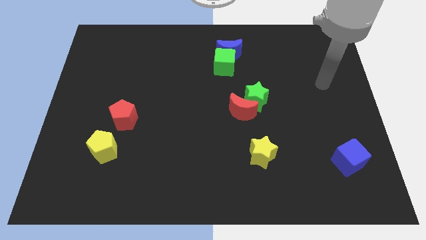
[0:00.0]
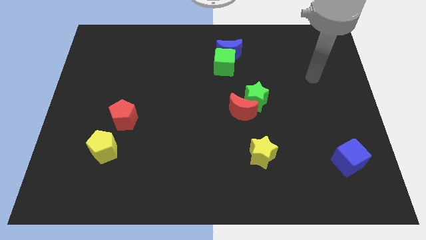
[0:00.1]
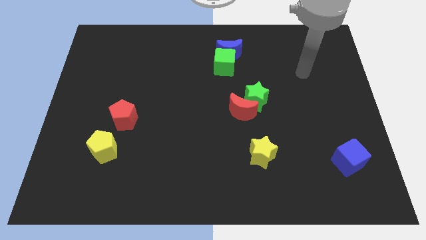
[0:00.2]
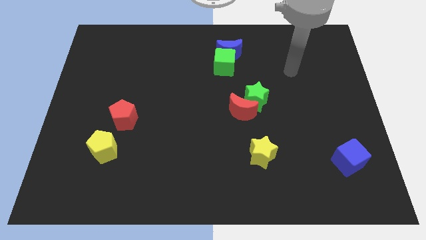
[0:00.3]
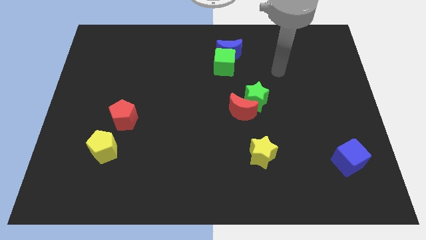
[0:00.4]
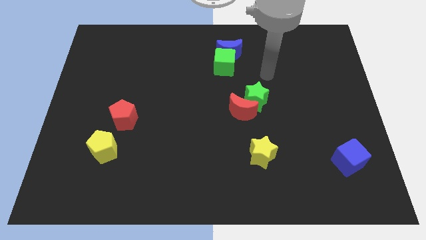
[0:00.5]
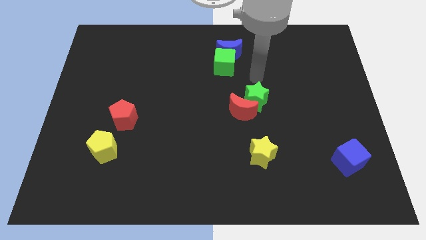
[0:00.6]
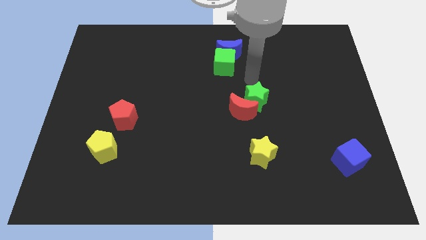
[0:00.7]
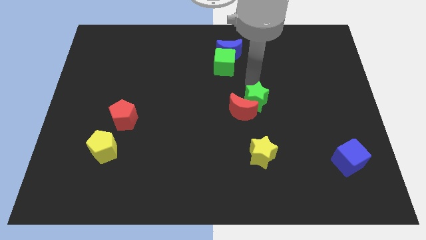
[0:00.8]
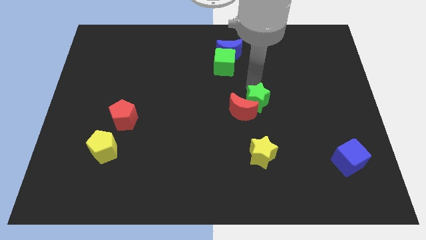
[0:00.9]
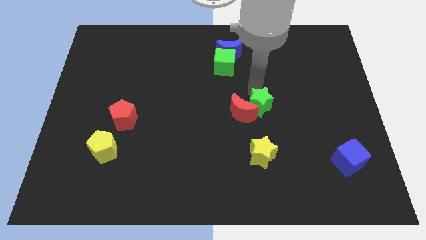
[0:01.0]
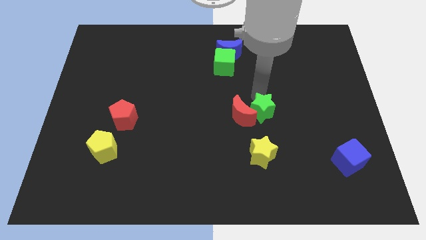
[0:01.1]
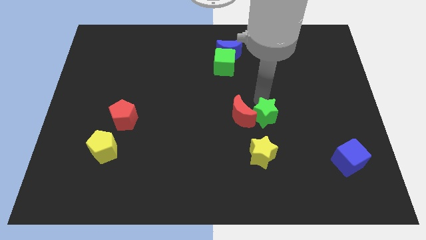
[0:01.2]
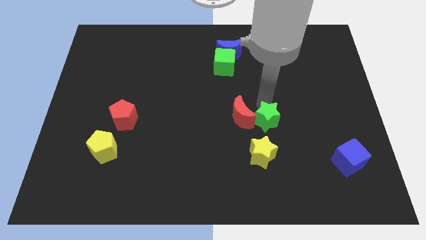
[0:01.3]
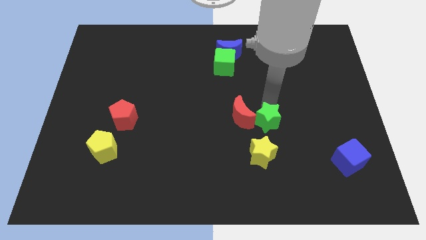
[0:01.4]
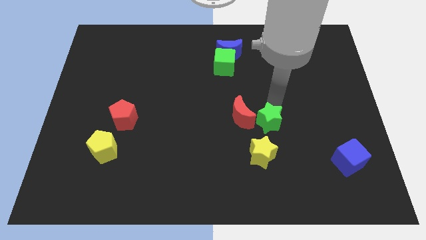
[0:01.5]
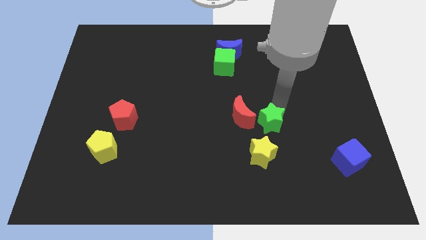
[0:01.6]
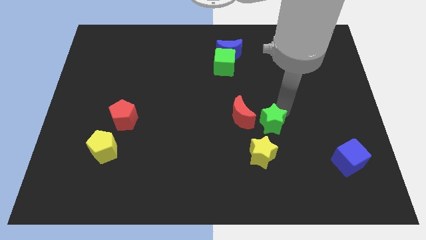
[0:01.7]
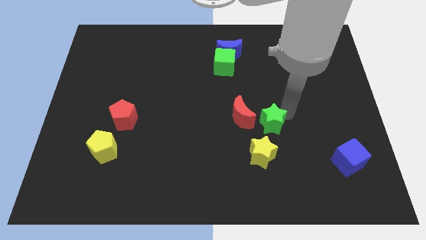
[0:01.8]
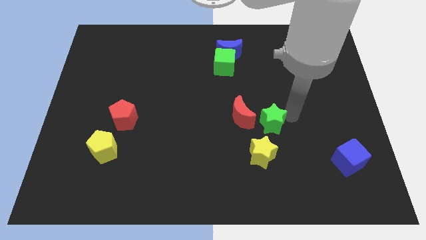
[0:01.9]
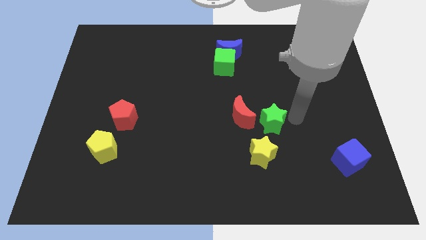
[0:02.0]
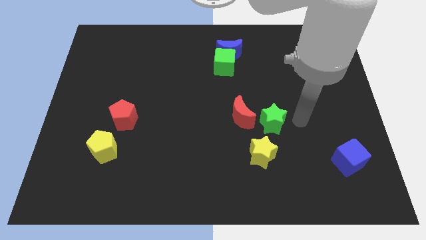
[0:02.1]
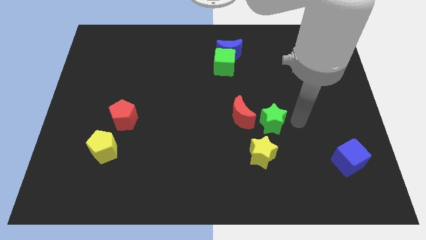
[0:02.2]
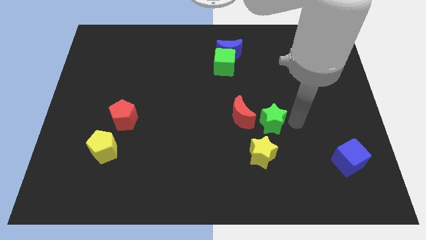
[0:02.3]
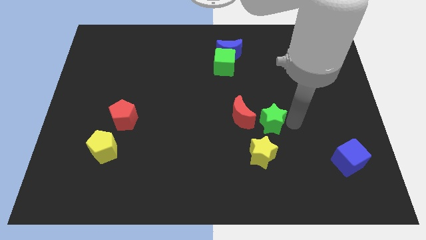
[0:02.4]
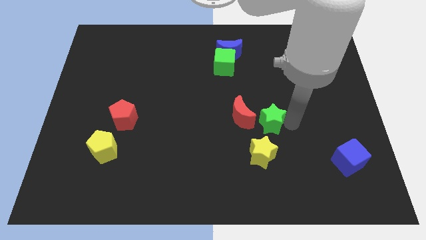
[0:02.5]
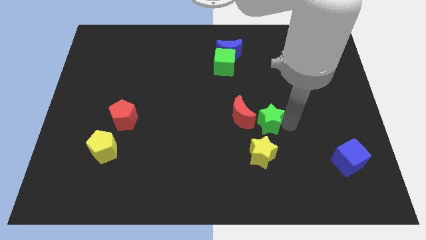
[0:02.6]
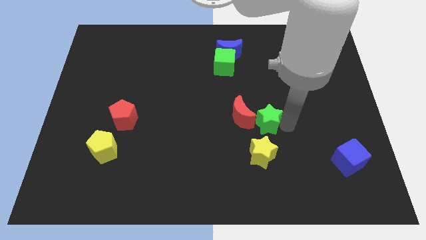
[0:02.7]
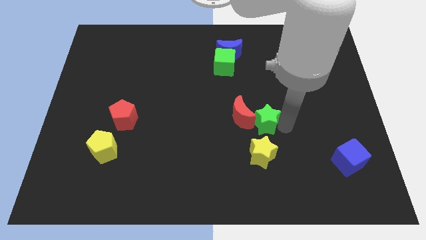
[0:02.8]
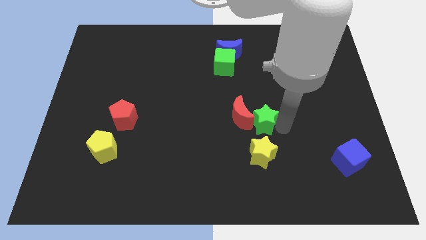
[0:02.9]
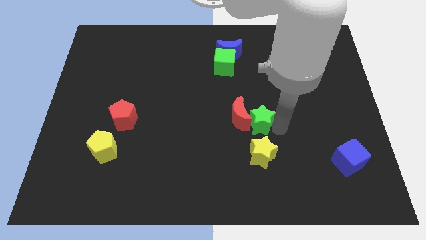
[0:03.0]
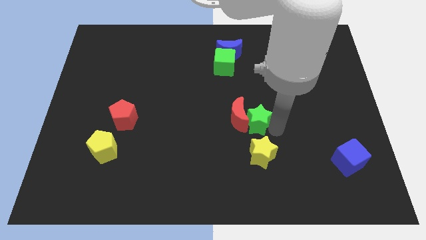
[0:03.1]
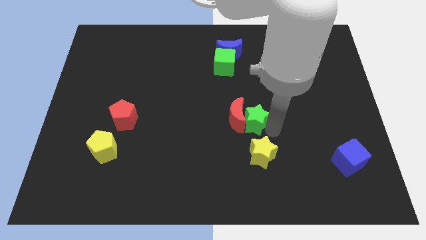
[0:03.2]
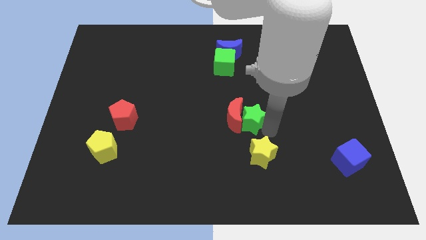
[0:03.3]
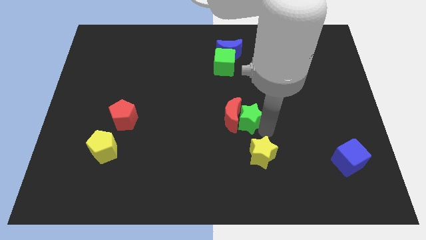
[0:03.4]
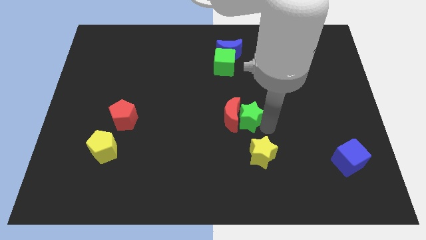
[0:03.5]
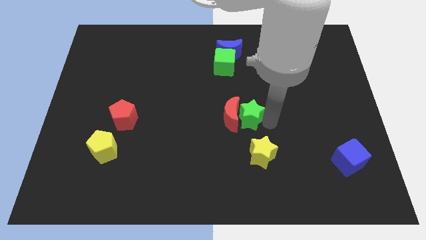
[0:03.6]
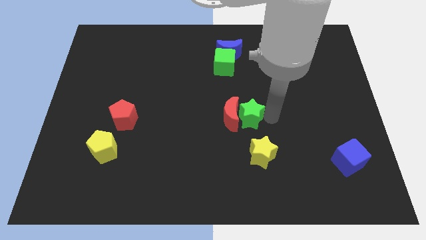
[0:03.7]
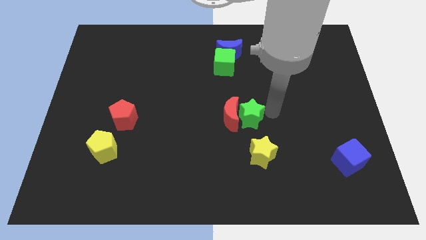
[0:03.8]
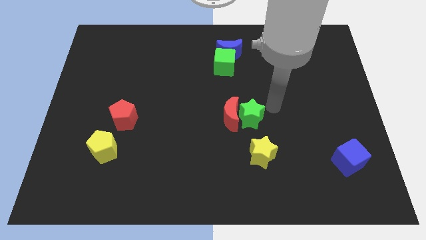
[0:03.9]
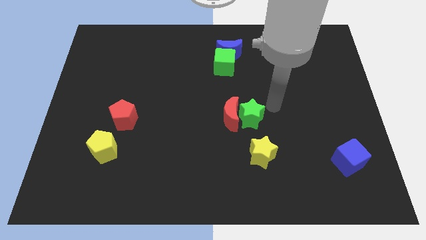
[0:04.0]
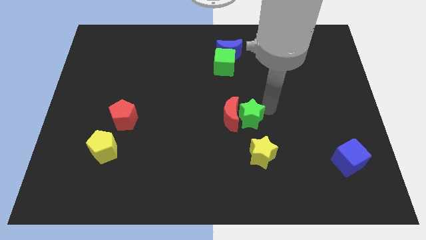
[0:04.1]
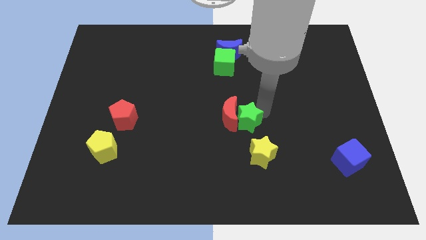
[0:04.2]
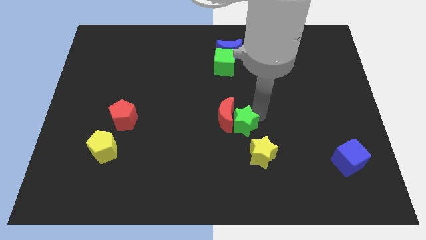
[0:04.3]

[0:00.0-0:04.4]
push the green star a little bit downwards and to the left diagonally

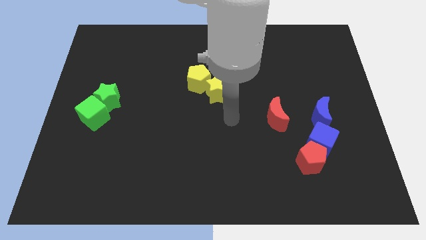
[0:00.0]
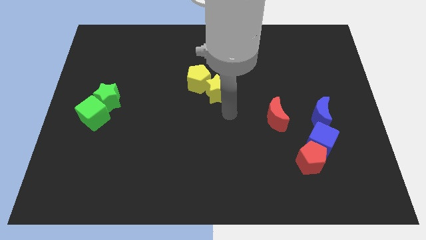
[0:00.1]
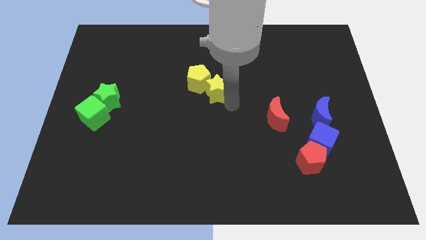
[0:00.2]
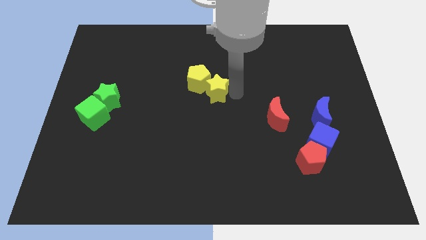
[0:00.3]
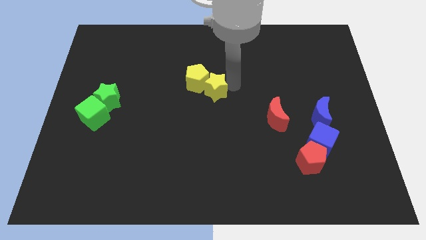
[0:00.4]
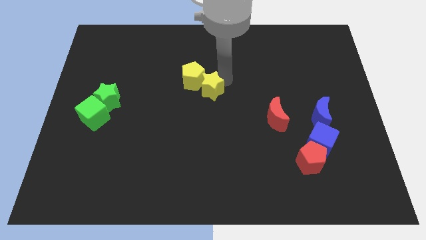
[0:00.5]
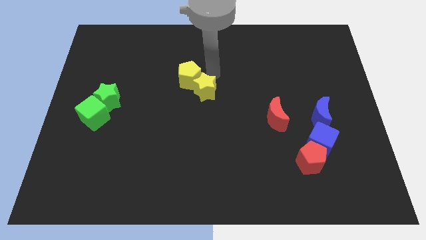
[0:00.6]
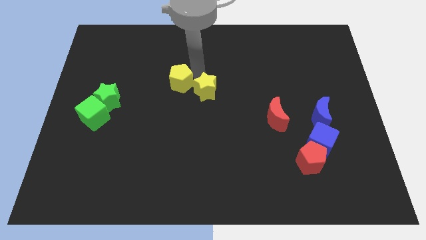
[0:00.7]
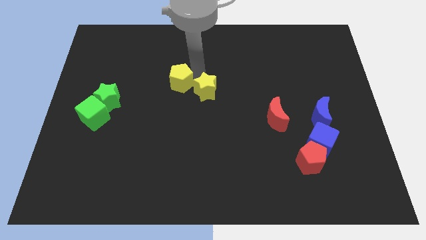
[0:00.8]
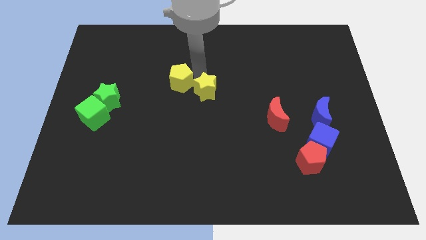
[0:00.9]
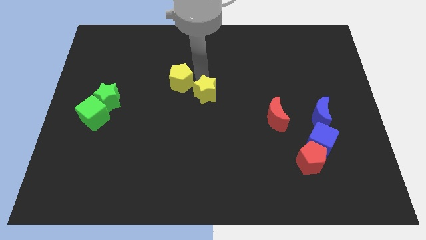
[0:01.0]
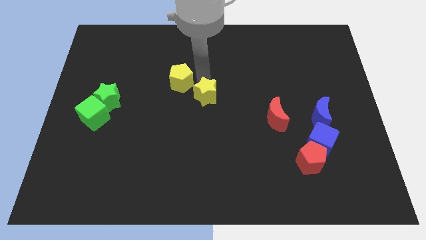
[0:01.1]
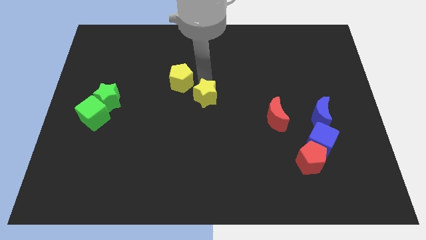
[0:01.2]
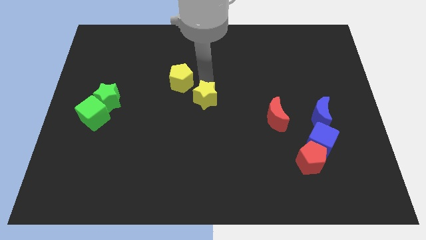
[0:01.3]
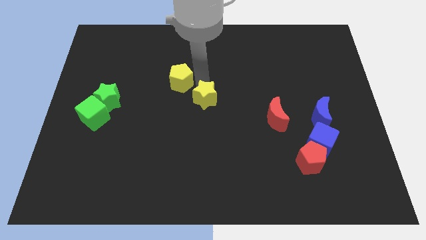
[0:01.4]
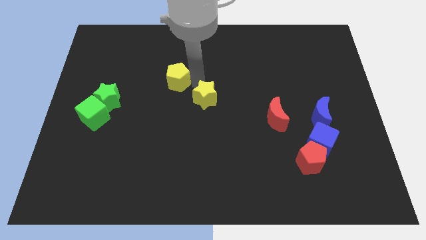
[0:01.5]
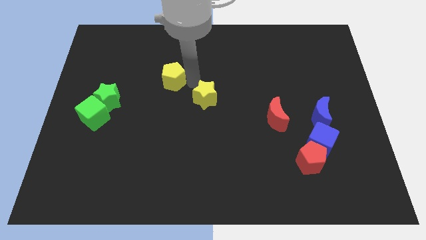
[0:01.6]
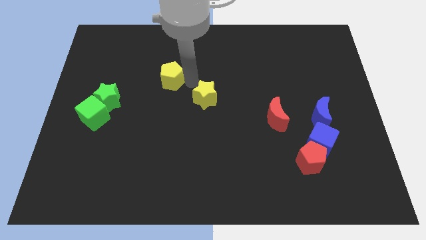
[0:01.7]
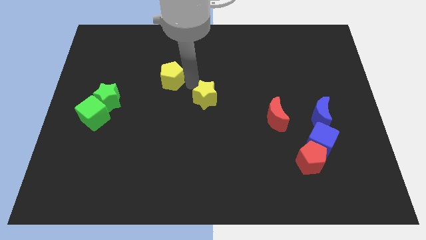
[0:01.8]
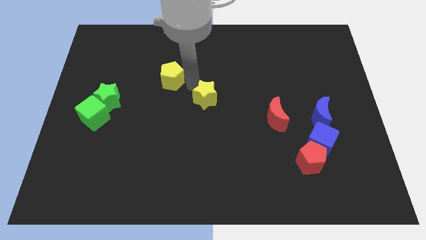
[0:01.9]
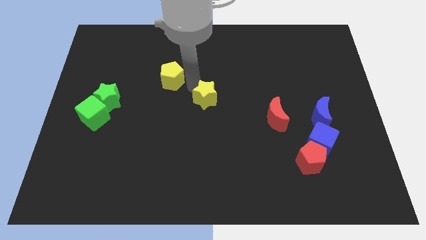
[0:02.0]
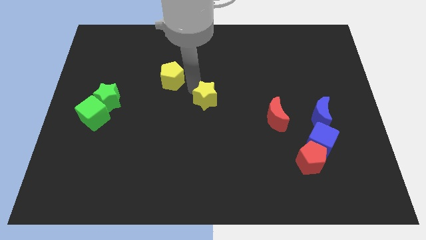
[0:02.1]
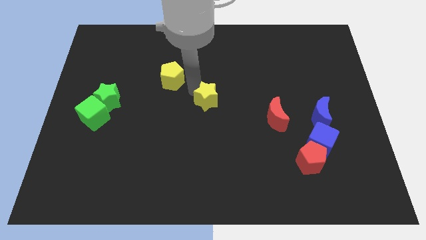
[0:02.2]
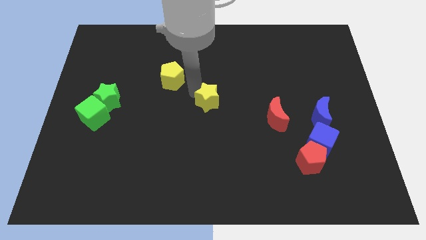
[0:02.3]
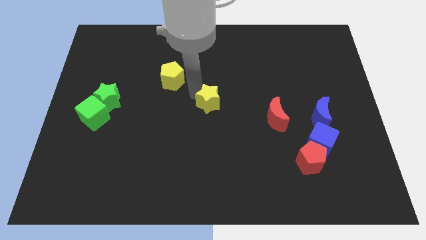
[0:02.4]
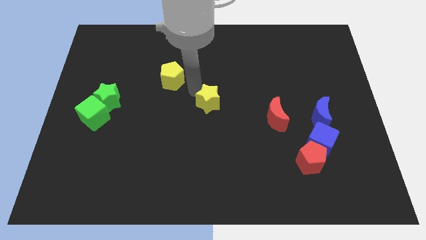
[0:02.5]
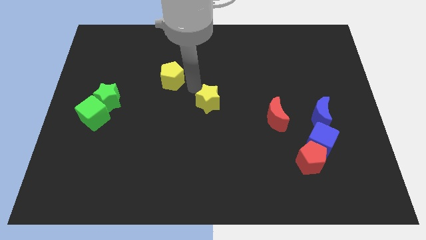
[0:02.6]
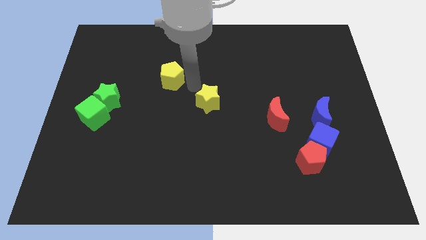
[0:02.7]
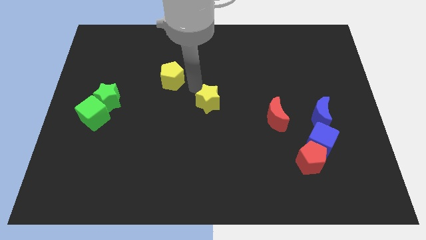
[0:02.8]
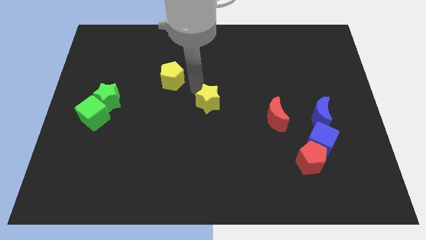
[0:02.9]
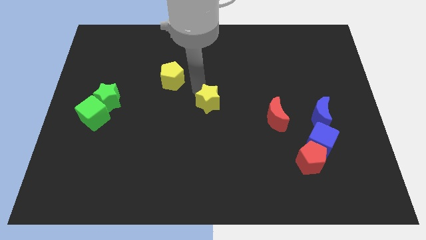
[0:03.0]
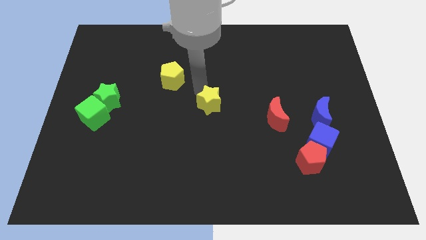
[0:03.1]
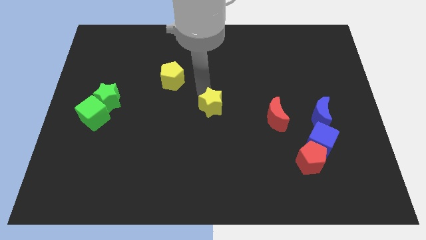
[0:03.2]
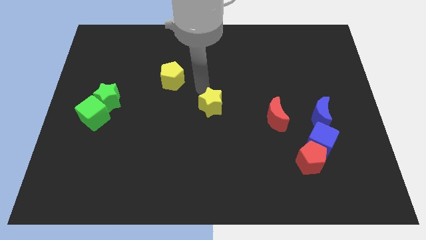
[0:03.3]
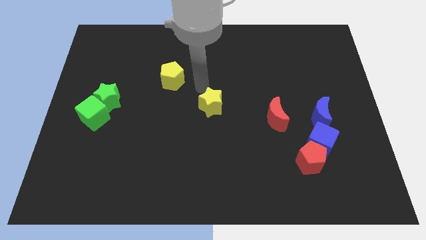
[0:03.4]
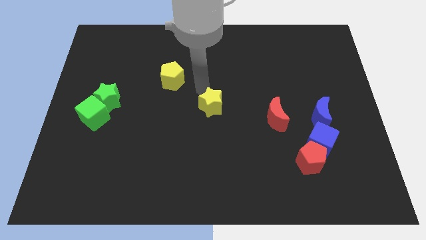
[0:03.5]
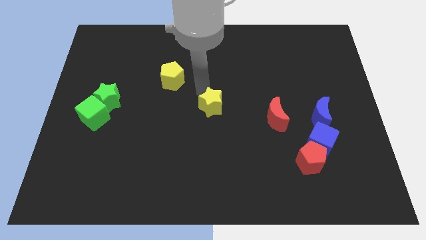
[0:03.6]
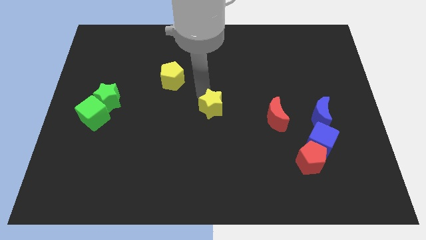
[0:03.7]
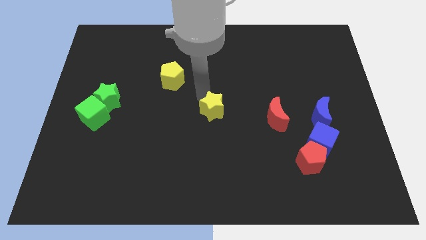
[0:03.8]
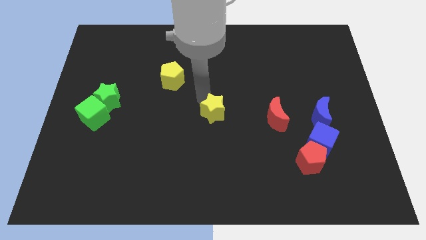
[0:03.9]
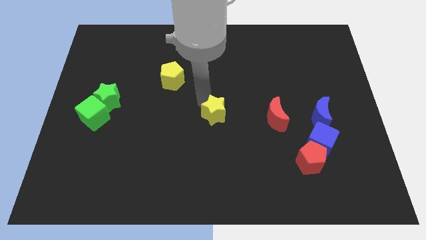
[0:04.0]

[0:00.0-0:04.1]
slightly move the yellow star down
